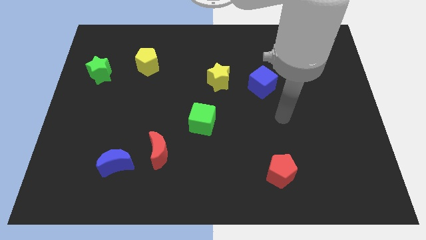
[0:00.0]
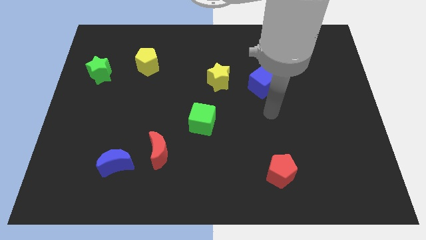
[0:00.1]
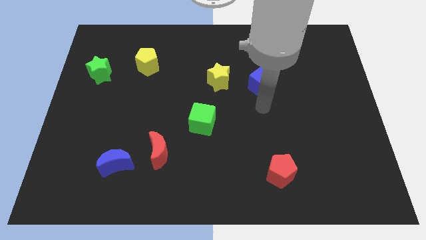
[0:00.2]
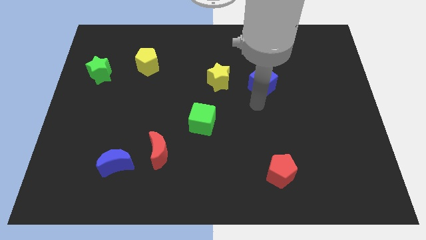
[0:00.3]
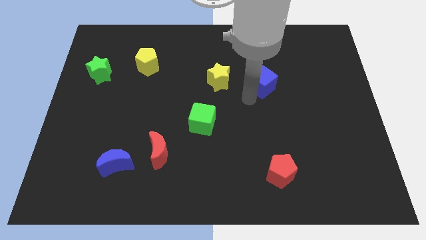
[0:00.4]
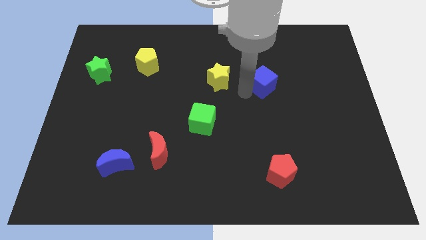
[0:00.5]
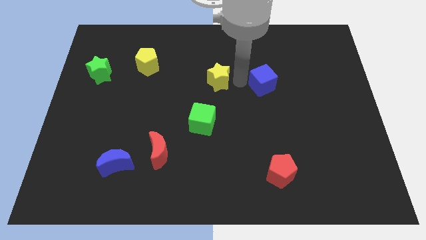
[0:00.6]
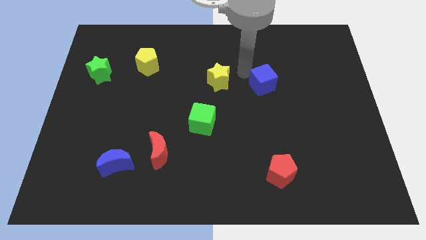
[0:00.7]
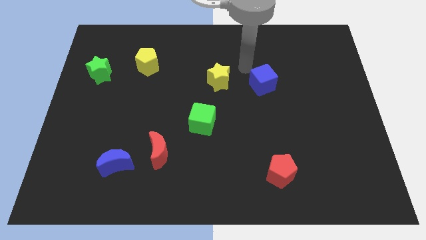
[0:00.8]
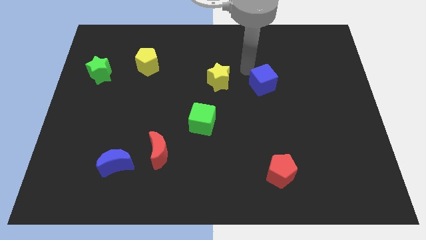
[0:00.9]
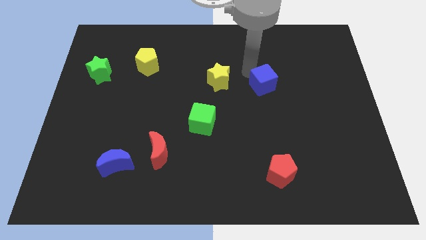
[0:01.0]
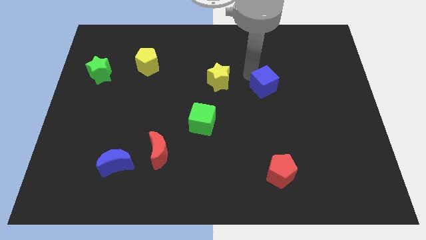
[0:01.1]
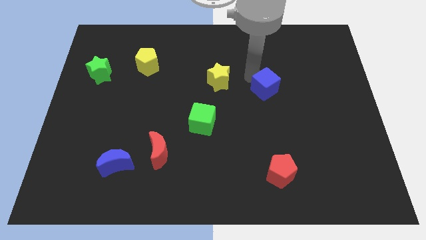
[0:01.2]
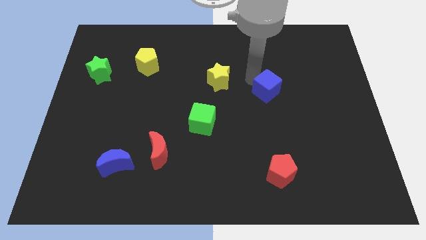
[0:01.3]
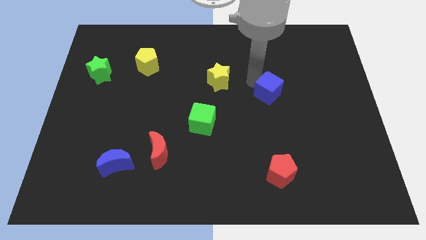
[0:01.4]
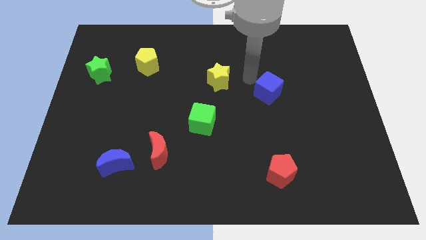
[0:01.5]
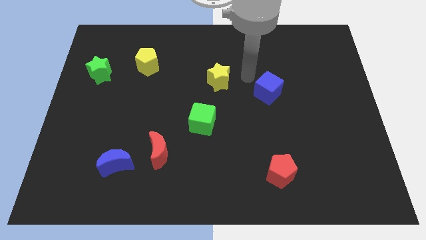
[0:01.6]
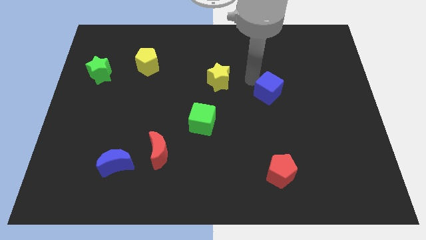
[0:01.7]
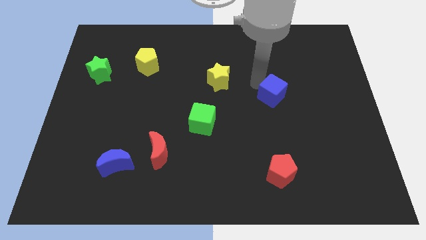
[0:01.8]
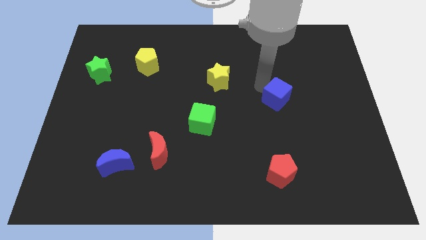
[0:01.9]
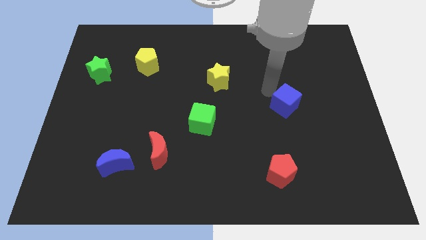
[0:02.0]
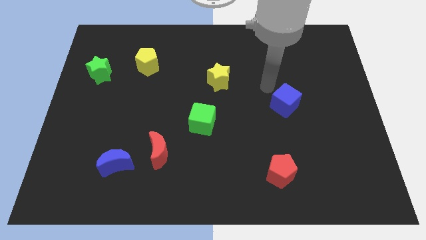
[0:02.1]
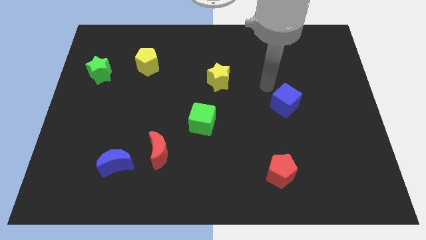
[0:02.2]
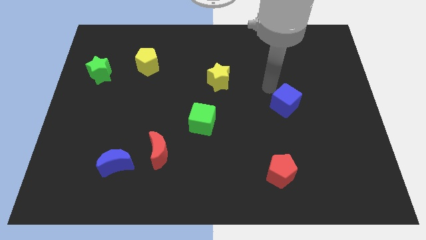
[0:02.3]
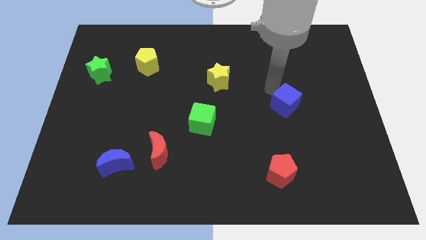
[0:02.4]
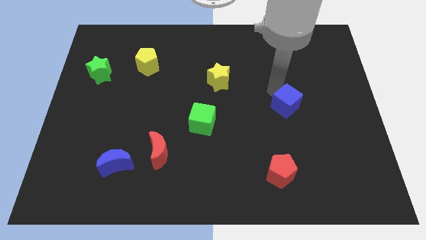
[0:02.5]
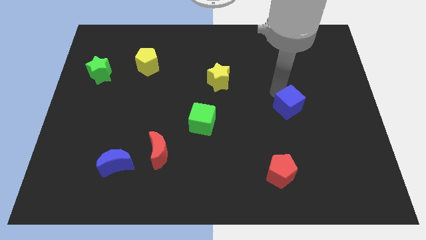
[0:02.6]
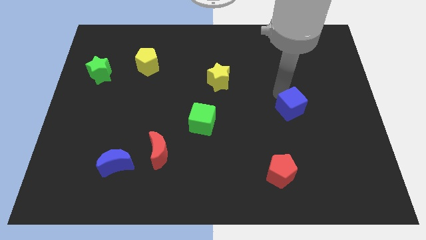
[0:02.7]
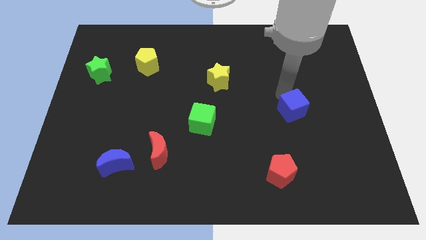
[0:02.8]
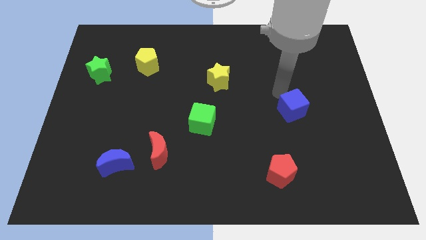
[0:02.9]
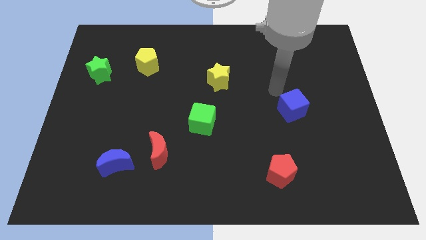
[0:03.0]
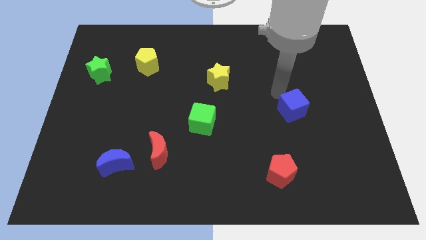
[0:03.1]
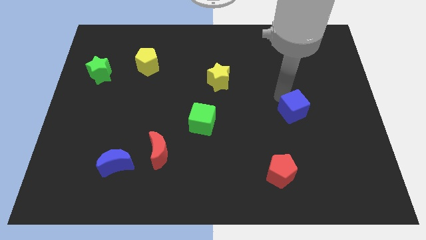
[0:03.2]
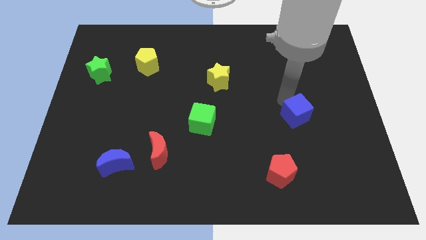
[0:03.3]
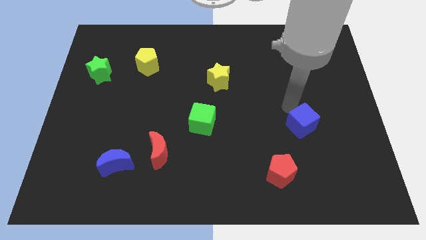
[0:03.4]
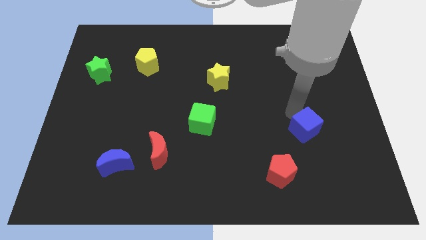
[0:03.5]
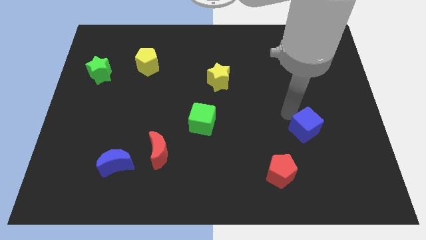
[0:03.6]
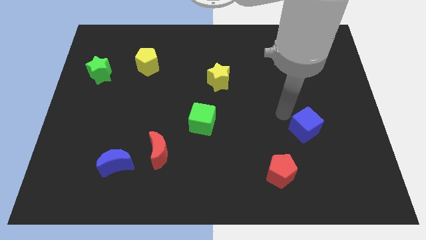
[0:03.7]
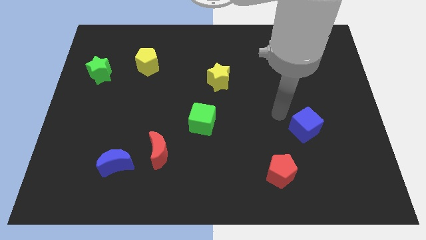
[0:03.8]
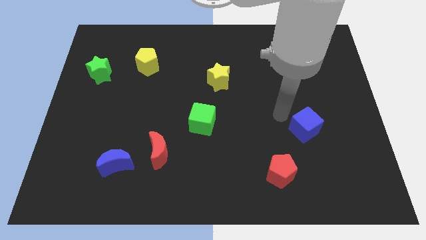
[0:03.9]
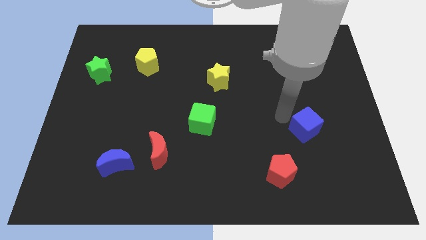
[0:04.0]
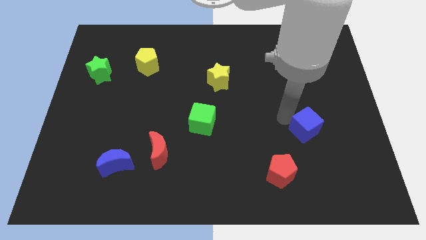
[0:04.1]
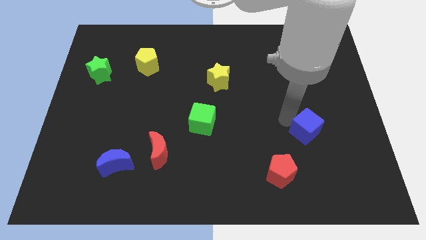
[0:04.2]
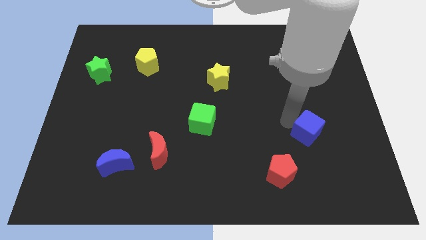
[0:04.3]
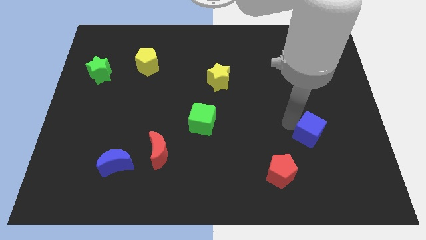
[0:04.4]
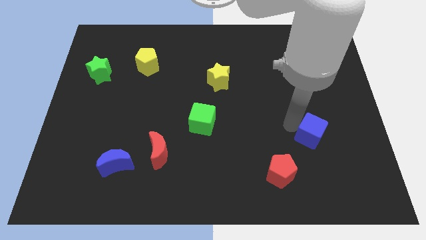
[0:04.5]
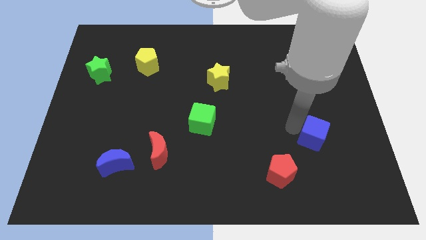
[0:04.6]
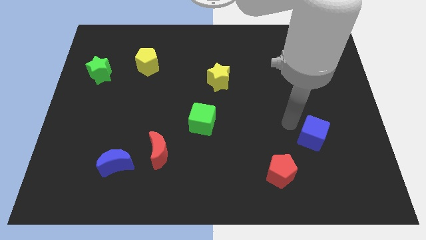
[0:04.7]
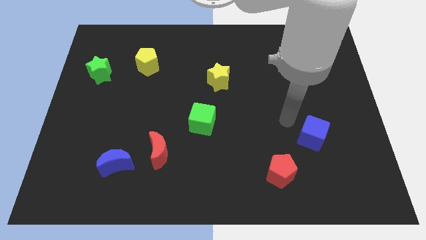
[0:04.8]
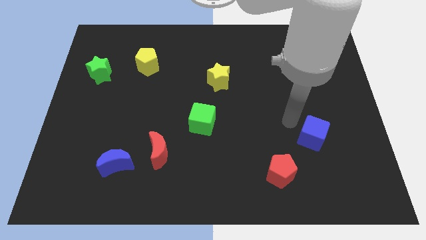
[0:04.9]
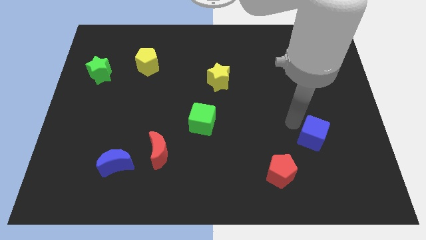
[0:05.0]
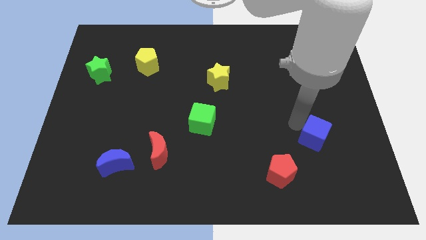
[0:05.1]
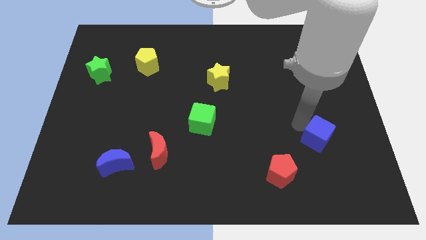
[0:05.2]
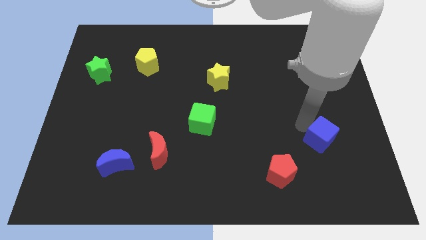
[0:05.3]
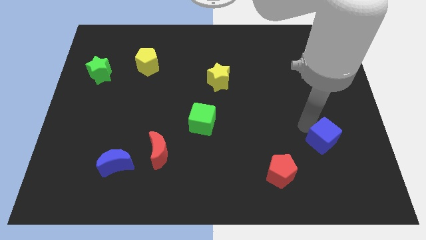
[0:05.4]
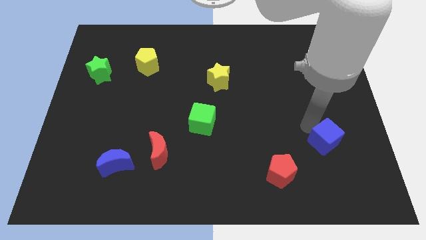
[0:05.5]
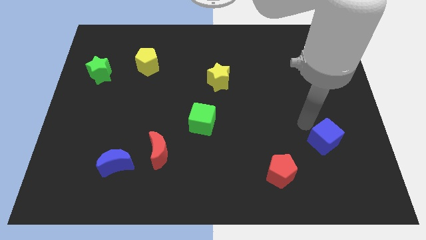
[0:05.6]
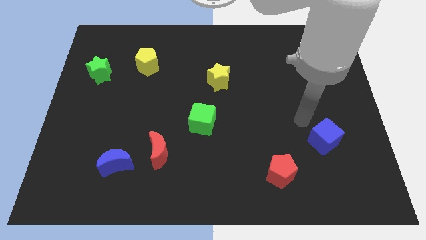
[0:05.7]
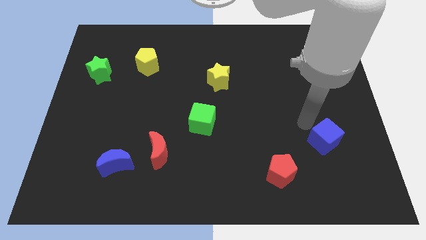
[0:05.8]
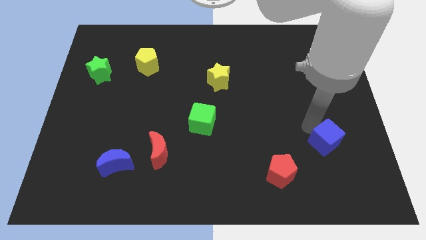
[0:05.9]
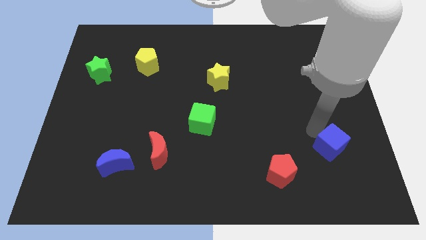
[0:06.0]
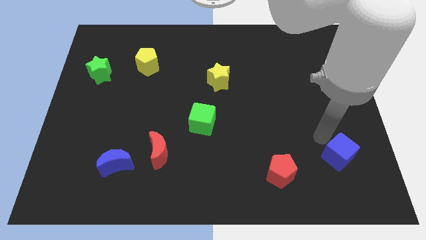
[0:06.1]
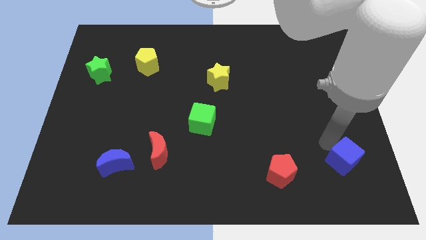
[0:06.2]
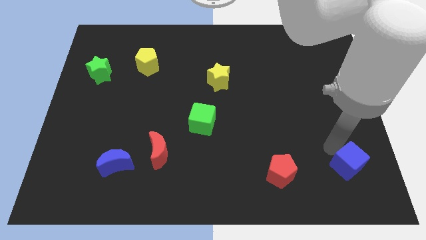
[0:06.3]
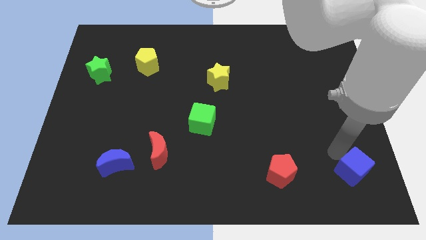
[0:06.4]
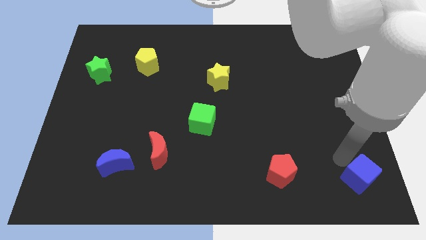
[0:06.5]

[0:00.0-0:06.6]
slide the blue cube to the bottom right of the board
